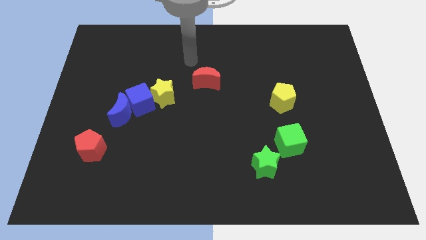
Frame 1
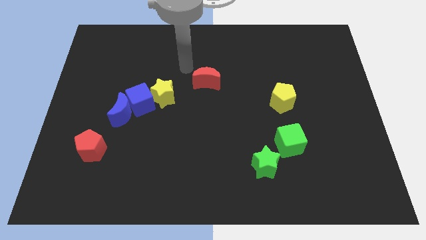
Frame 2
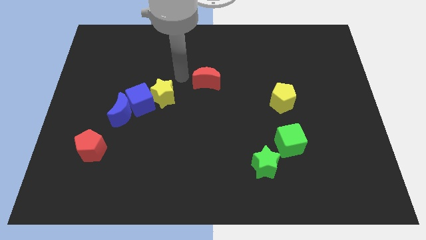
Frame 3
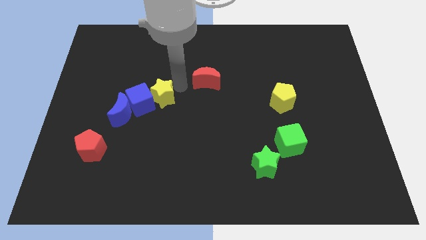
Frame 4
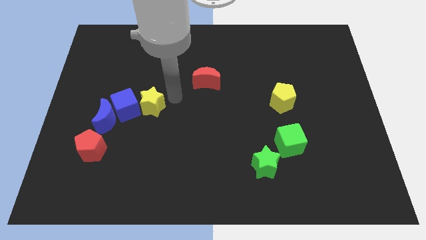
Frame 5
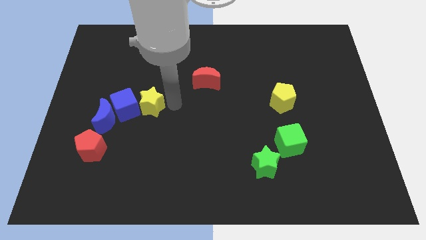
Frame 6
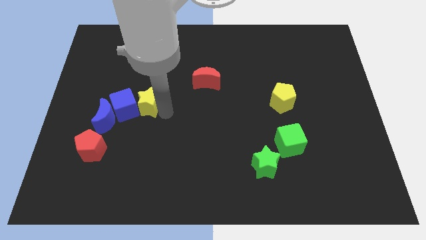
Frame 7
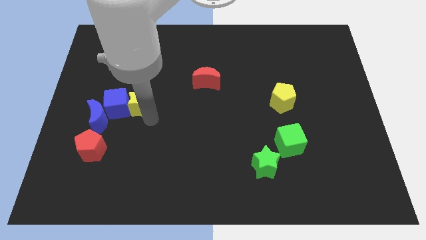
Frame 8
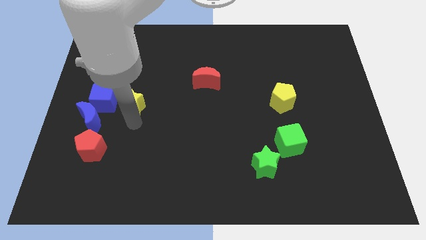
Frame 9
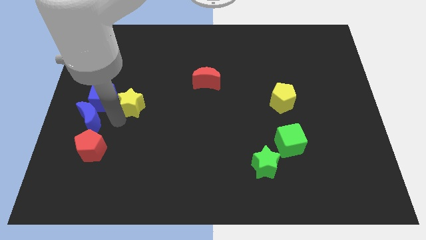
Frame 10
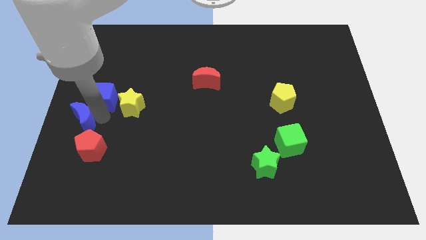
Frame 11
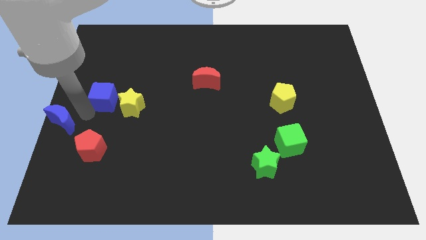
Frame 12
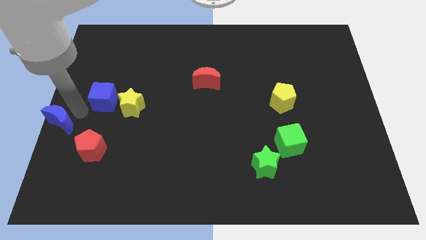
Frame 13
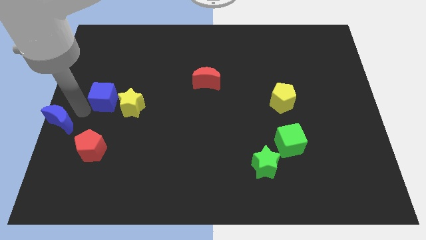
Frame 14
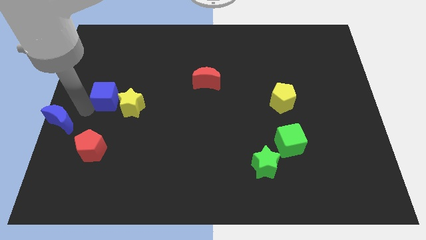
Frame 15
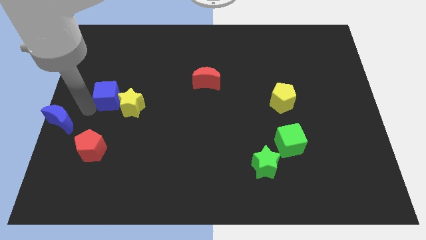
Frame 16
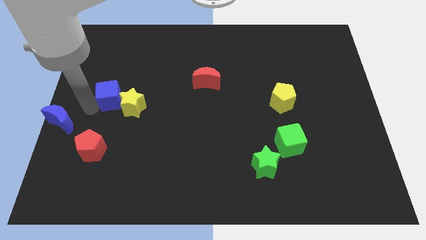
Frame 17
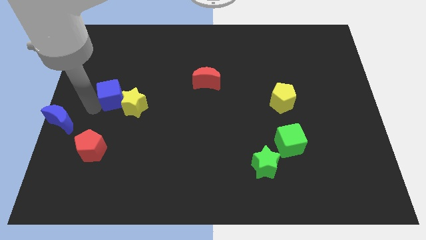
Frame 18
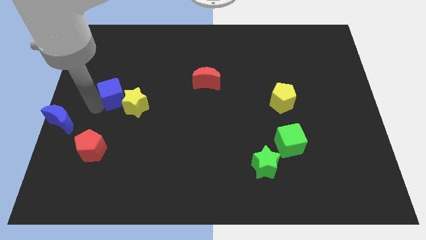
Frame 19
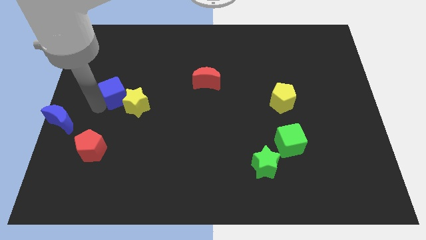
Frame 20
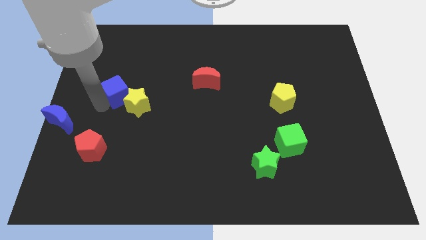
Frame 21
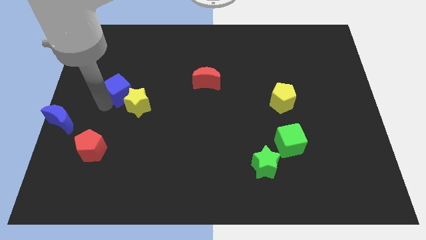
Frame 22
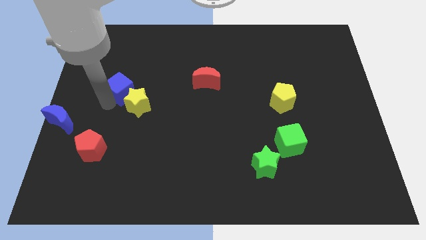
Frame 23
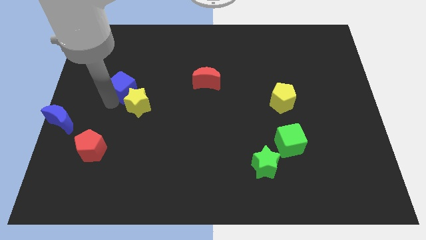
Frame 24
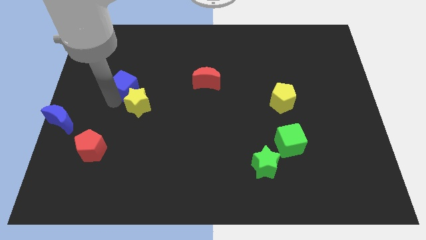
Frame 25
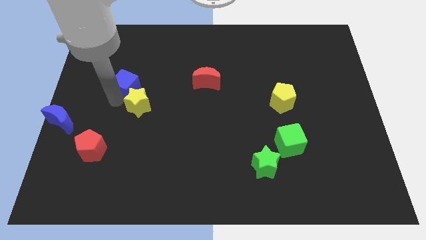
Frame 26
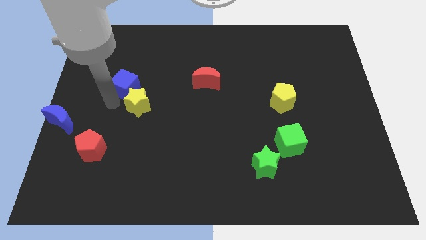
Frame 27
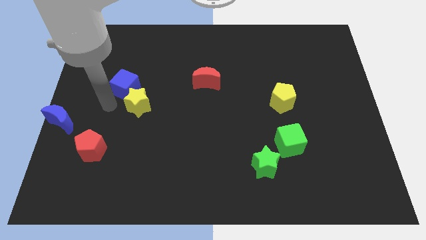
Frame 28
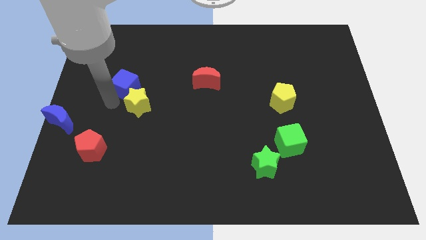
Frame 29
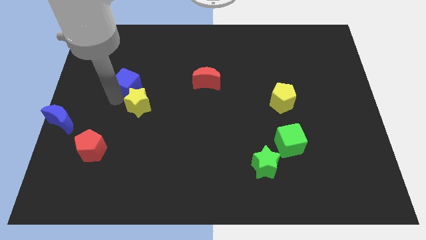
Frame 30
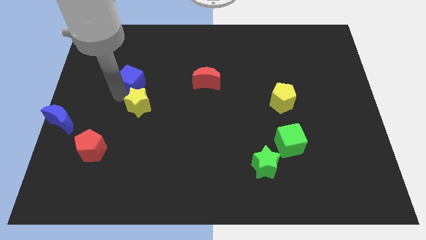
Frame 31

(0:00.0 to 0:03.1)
separate the blue cube from the blue moon and yellow star

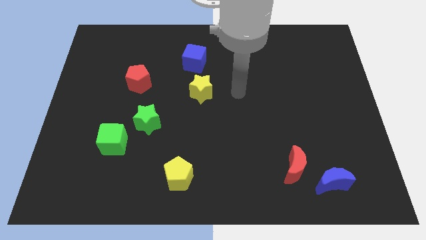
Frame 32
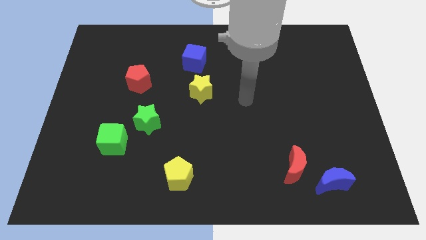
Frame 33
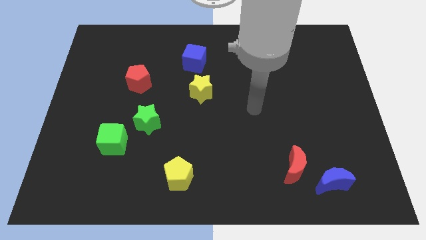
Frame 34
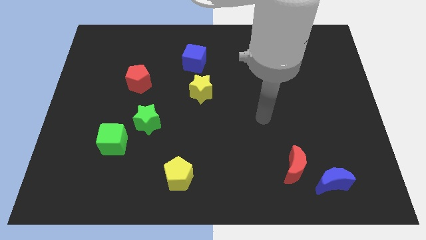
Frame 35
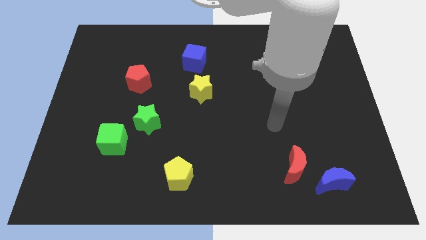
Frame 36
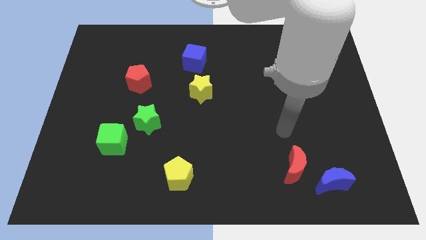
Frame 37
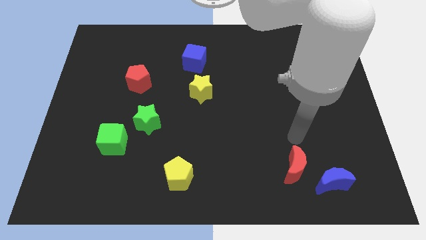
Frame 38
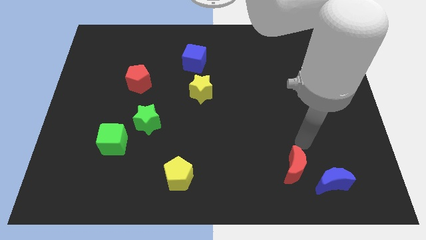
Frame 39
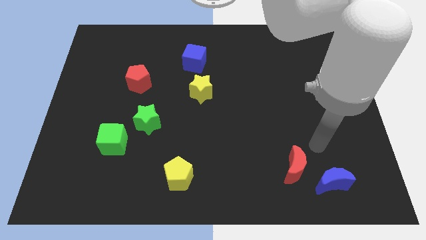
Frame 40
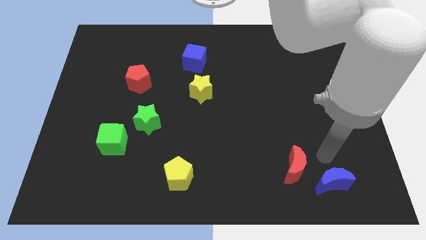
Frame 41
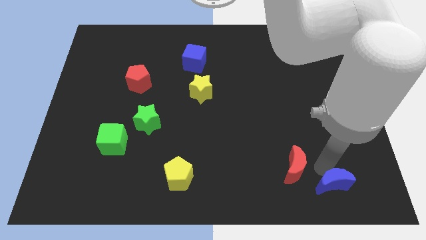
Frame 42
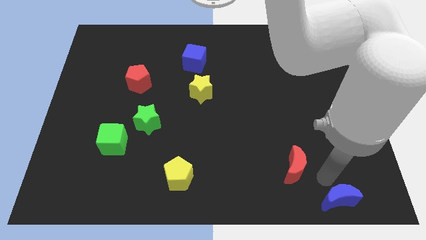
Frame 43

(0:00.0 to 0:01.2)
pull the red moon apart from the blue moon

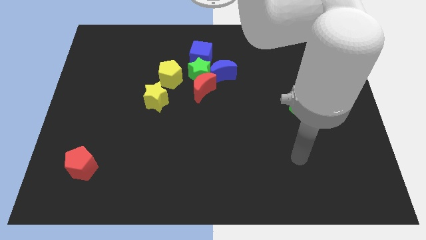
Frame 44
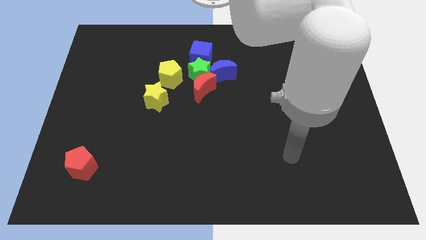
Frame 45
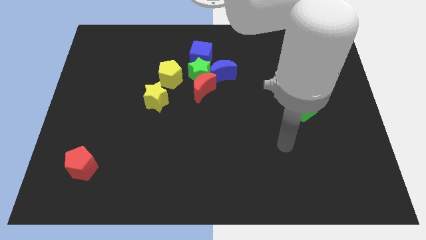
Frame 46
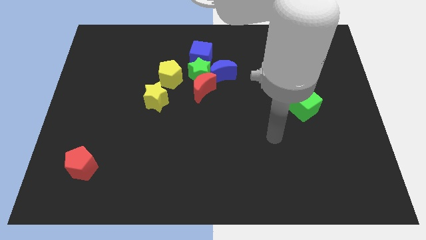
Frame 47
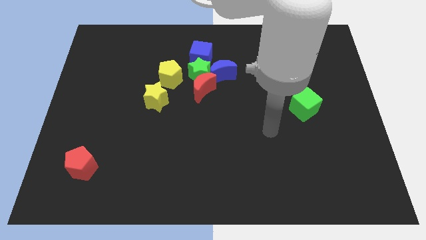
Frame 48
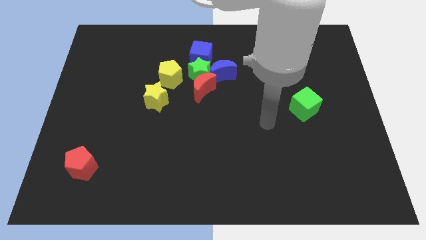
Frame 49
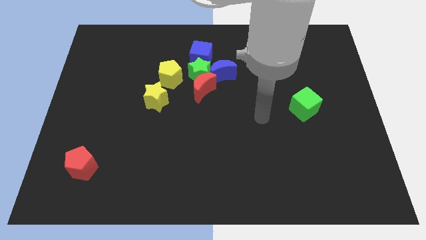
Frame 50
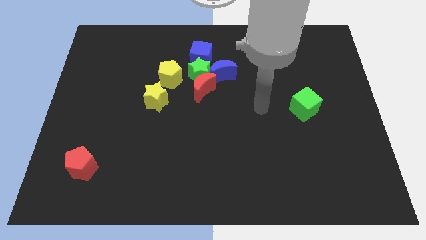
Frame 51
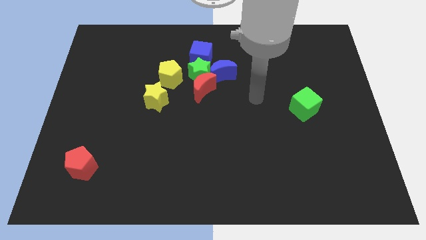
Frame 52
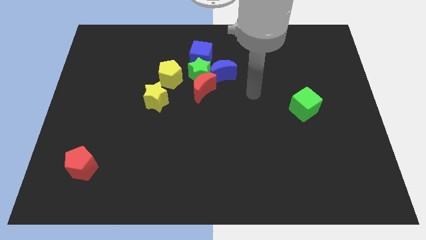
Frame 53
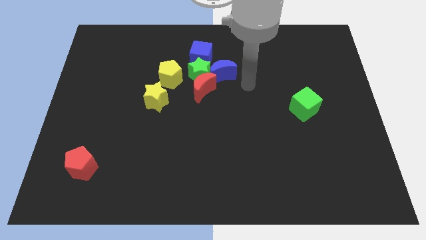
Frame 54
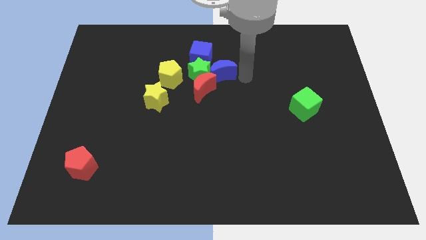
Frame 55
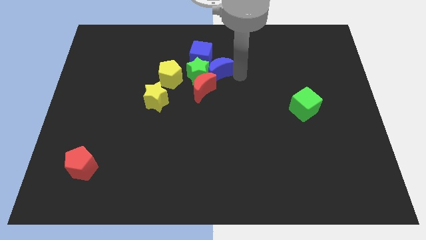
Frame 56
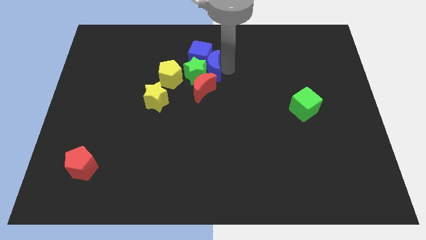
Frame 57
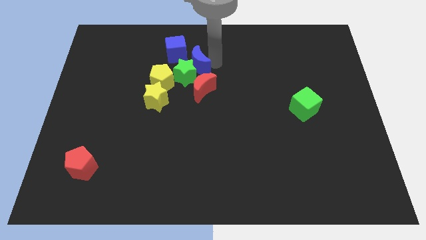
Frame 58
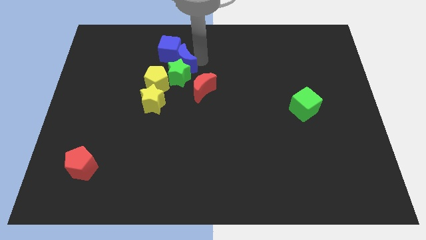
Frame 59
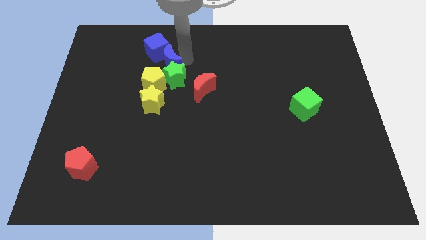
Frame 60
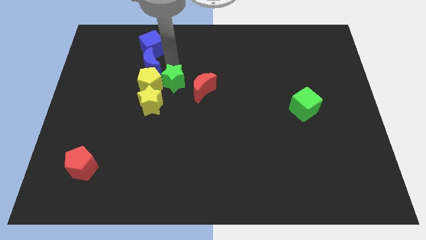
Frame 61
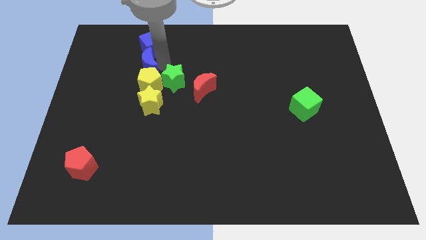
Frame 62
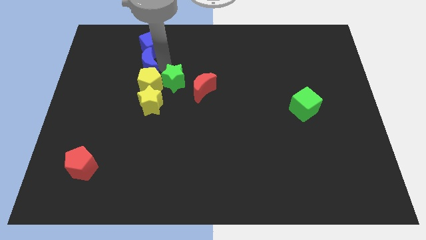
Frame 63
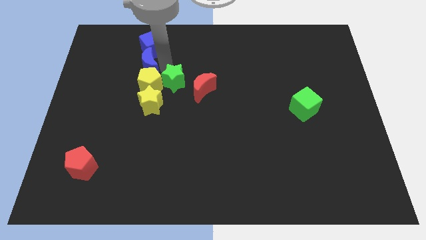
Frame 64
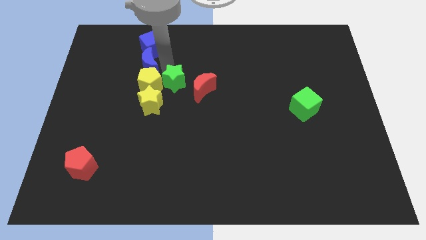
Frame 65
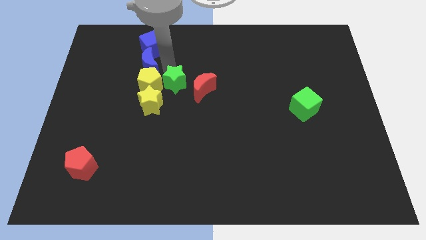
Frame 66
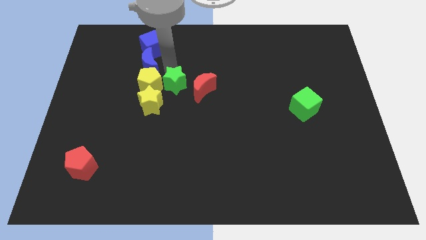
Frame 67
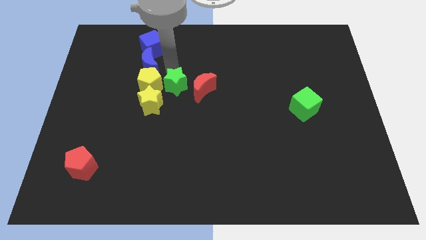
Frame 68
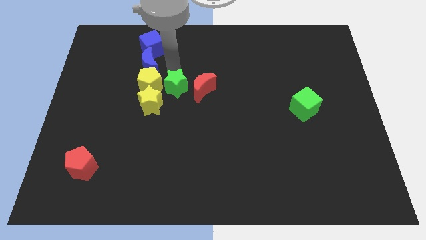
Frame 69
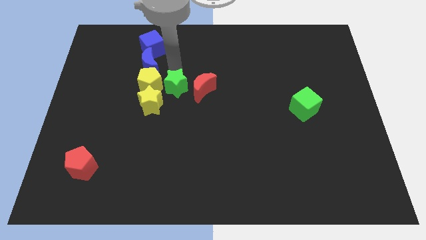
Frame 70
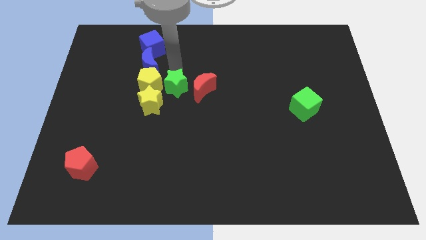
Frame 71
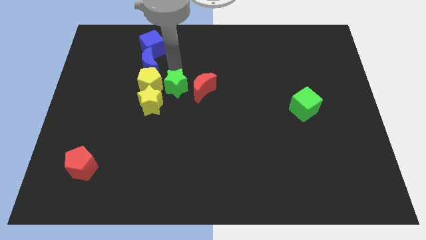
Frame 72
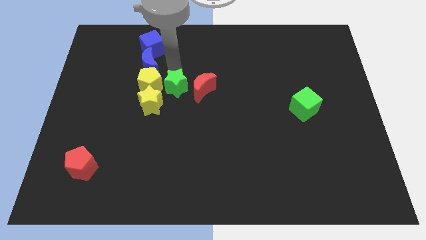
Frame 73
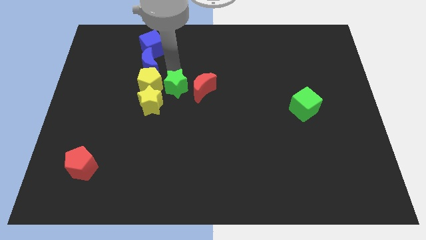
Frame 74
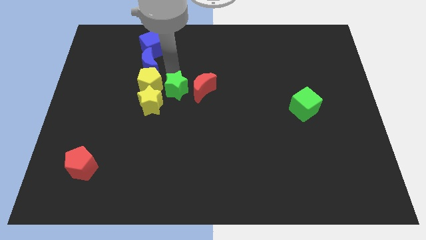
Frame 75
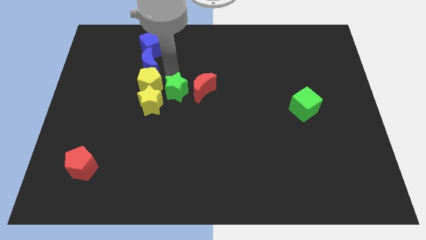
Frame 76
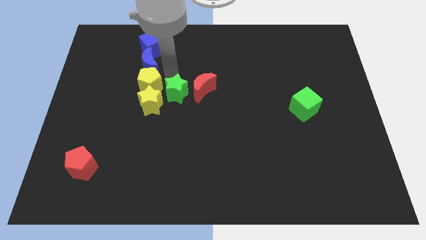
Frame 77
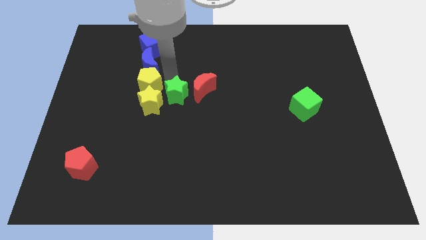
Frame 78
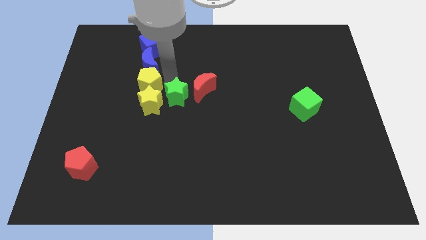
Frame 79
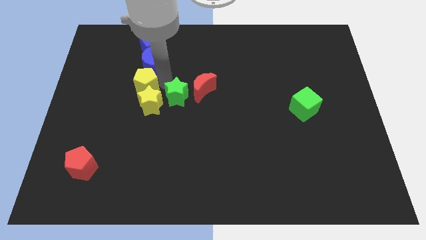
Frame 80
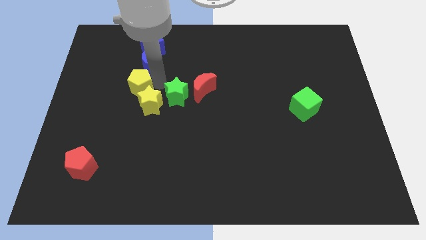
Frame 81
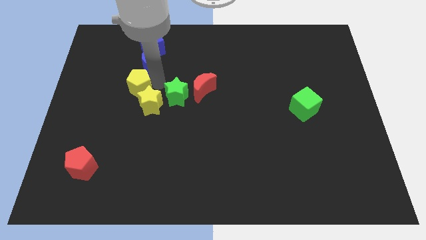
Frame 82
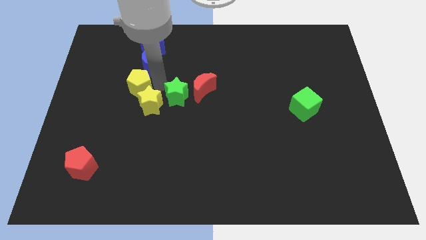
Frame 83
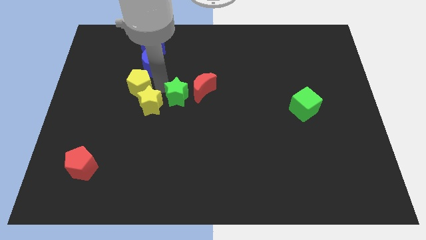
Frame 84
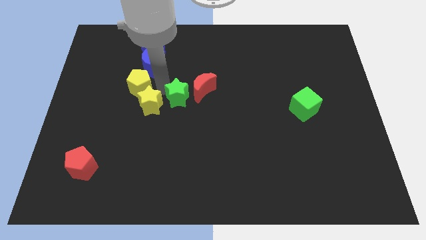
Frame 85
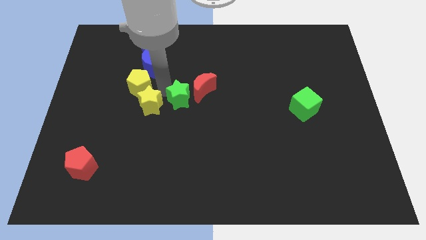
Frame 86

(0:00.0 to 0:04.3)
pull the green star apart from the group of blocks

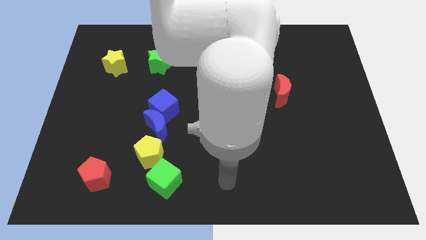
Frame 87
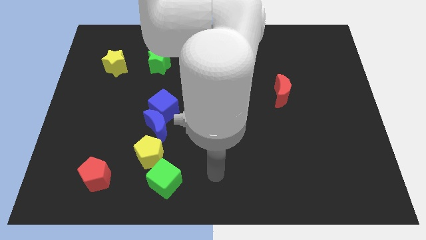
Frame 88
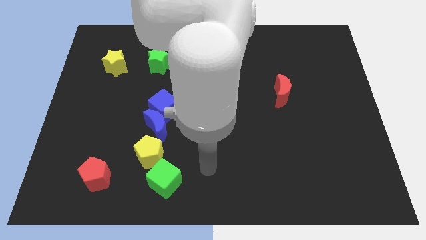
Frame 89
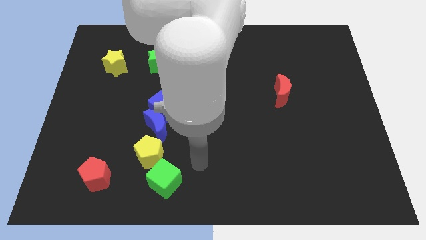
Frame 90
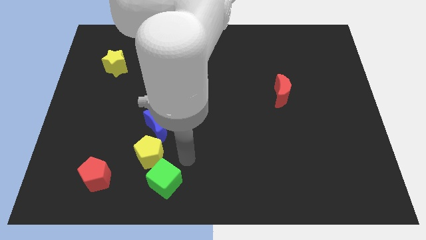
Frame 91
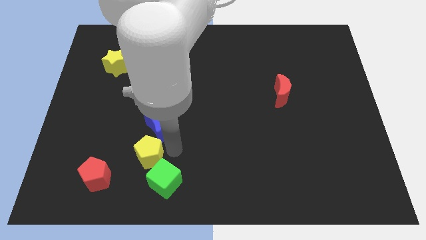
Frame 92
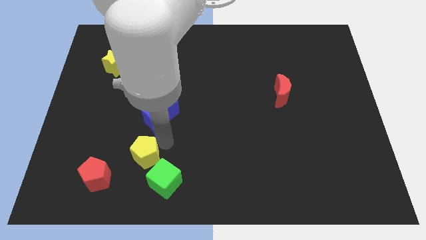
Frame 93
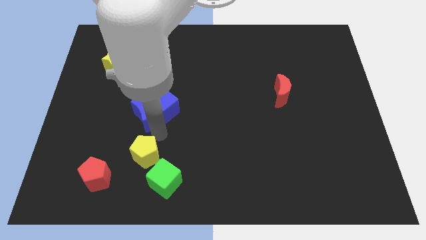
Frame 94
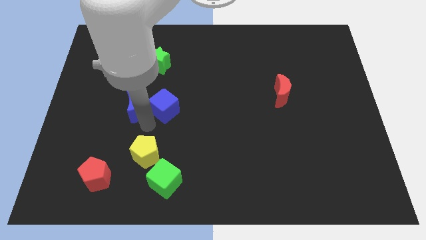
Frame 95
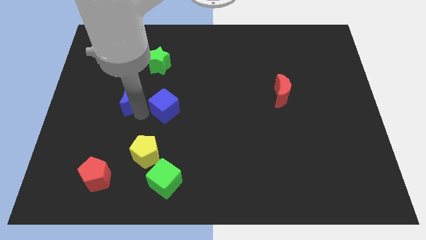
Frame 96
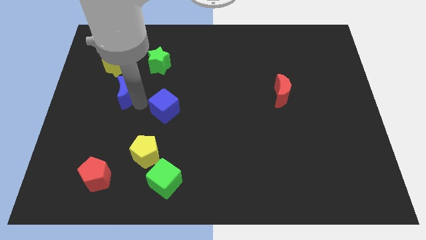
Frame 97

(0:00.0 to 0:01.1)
move the blue cube away from the blue moon
